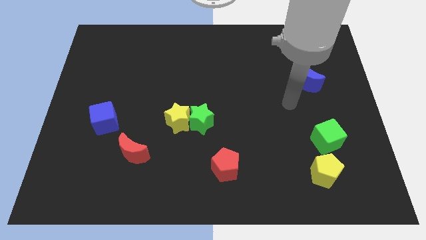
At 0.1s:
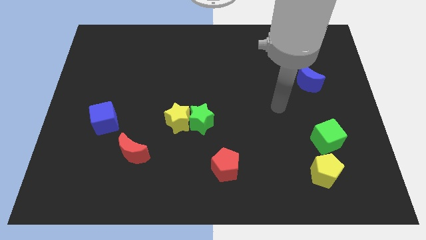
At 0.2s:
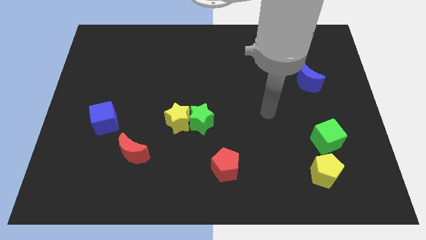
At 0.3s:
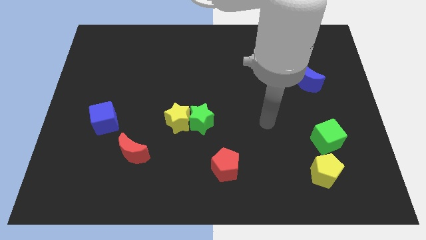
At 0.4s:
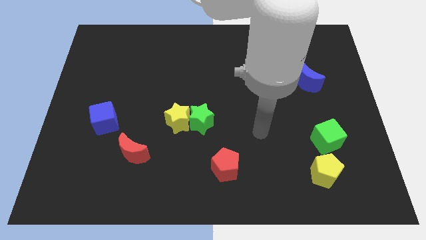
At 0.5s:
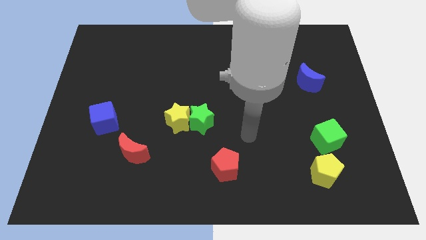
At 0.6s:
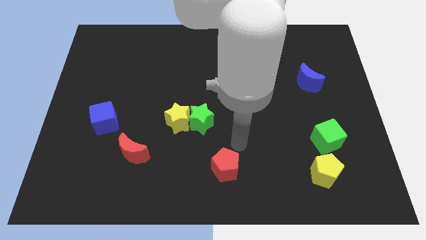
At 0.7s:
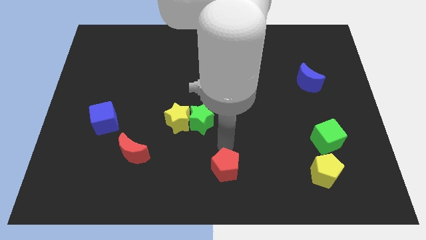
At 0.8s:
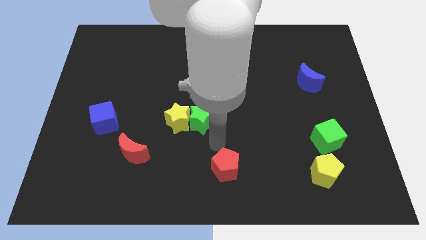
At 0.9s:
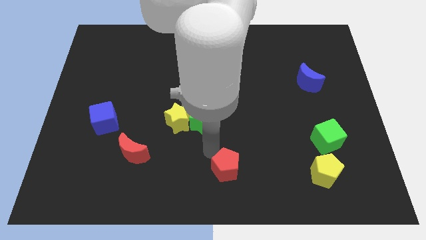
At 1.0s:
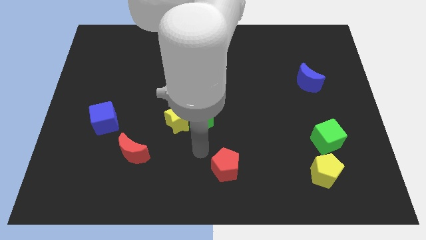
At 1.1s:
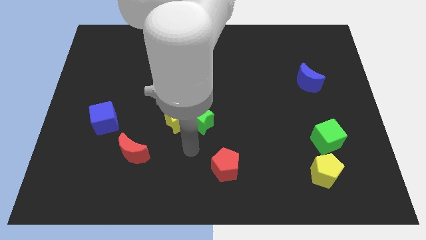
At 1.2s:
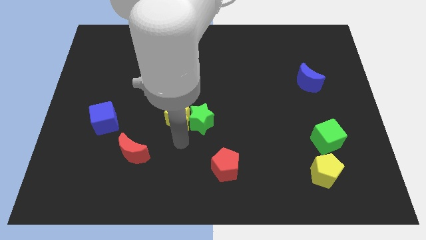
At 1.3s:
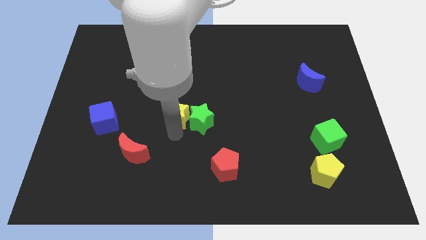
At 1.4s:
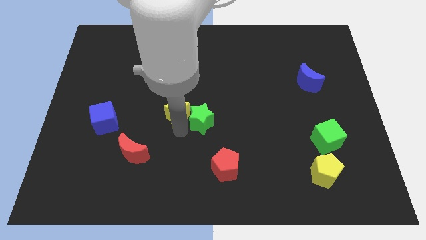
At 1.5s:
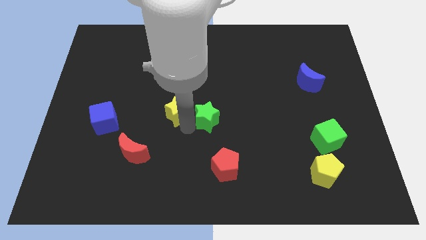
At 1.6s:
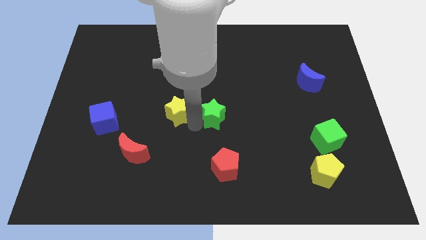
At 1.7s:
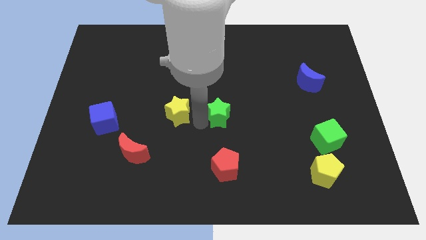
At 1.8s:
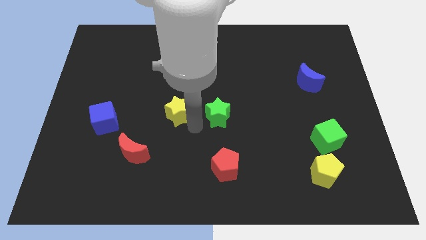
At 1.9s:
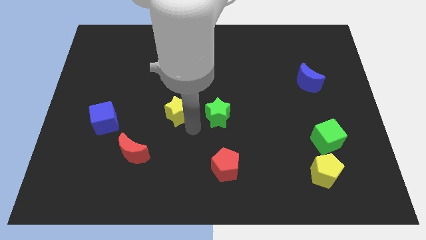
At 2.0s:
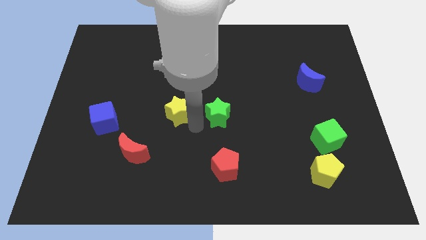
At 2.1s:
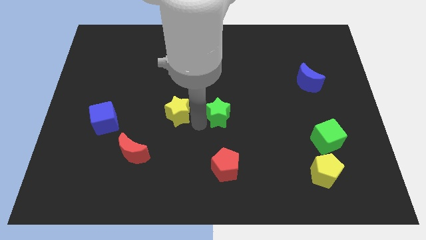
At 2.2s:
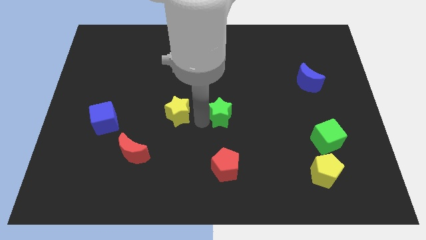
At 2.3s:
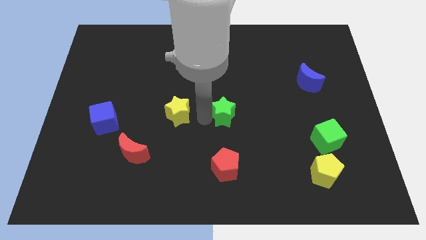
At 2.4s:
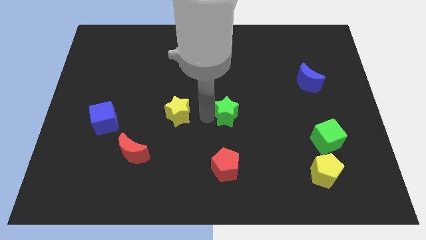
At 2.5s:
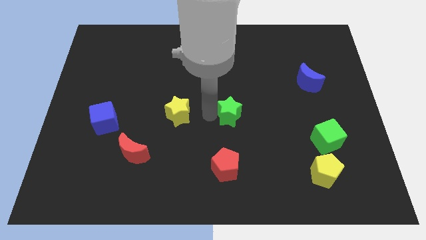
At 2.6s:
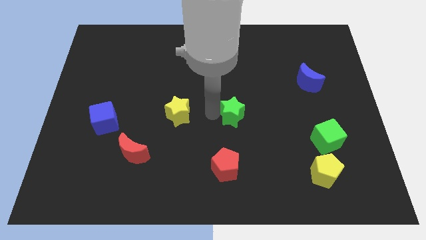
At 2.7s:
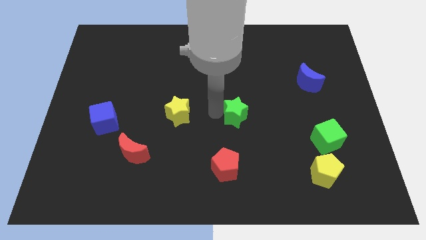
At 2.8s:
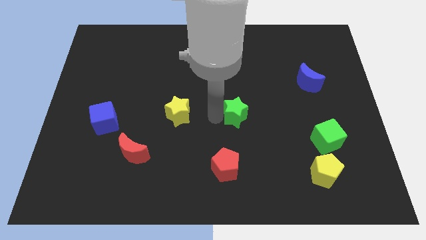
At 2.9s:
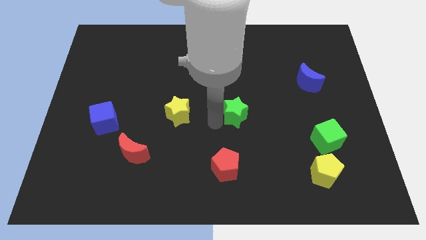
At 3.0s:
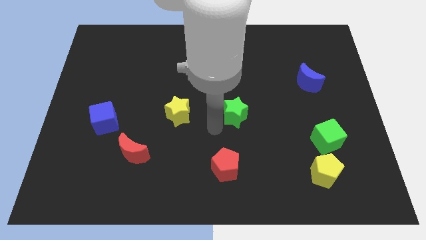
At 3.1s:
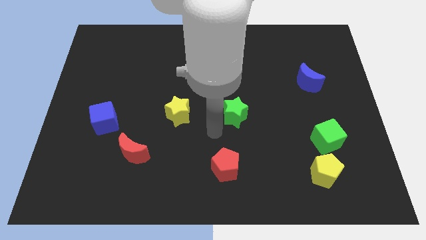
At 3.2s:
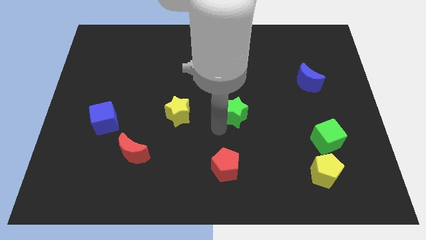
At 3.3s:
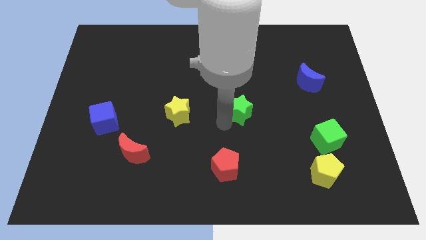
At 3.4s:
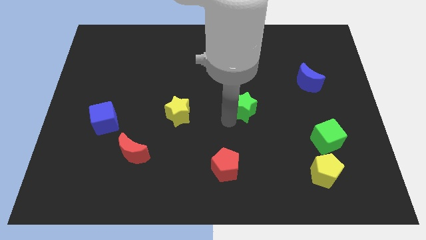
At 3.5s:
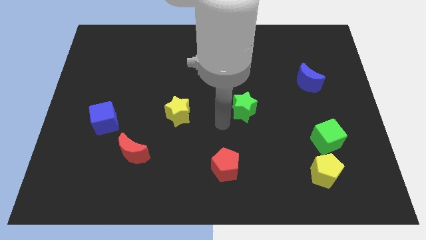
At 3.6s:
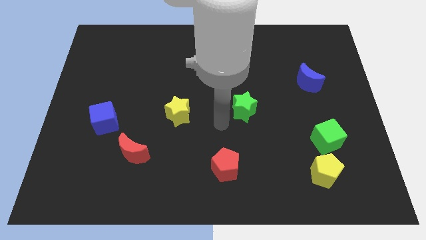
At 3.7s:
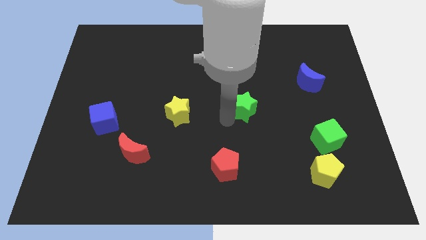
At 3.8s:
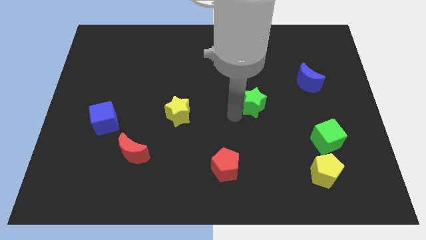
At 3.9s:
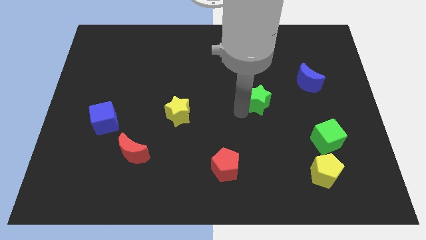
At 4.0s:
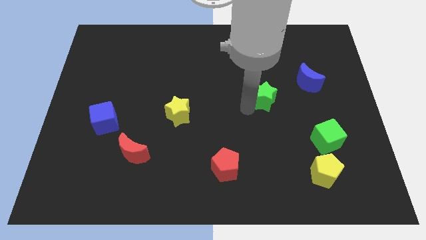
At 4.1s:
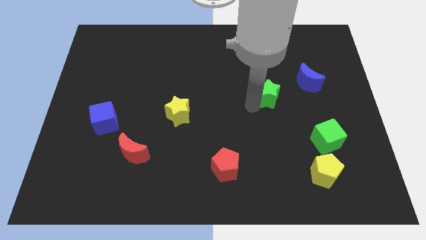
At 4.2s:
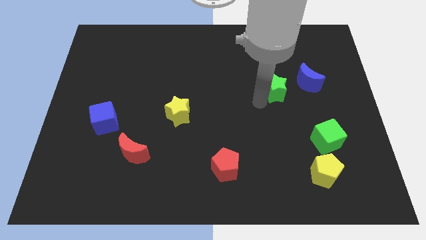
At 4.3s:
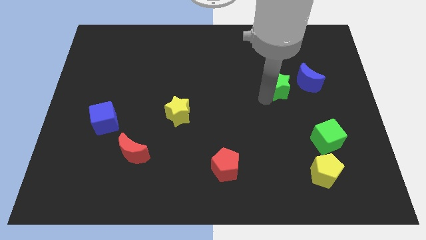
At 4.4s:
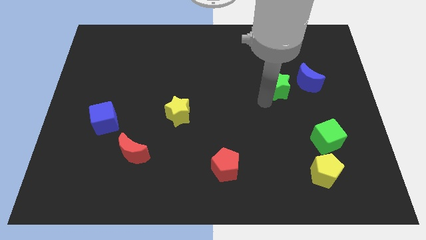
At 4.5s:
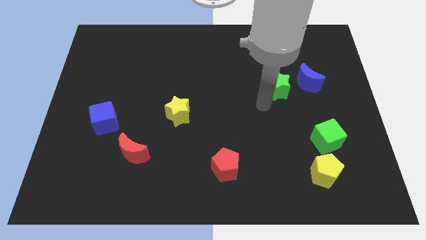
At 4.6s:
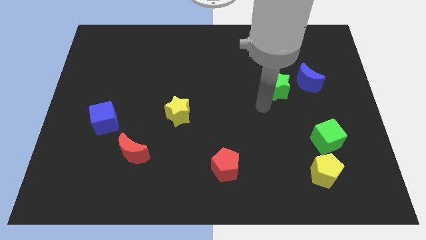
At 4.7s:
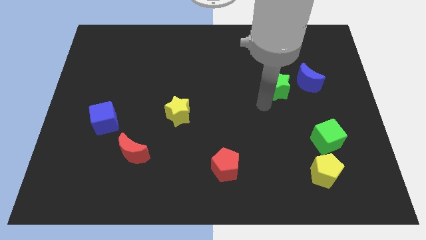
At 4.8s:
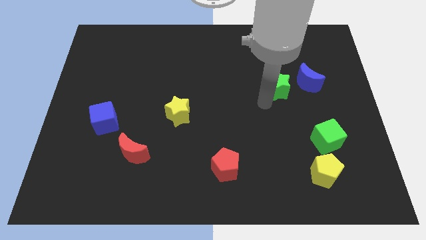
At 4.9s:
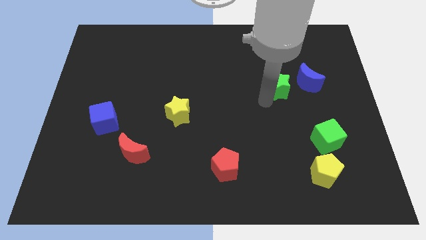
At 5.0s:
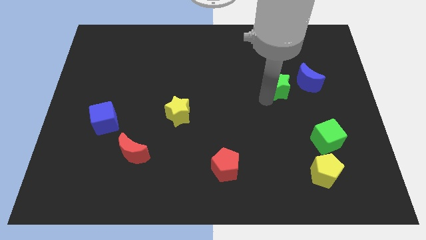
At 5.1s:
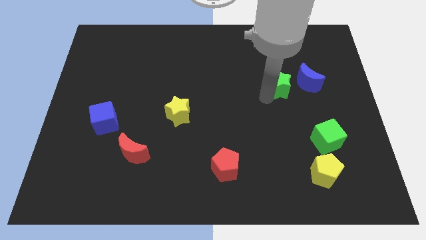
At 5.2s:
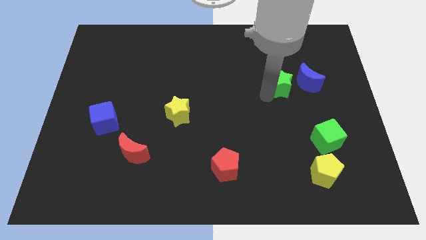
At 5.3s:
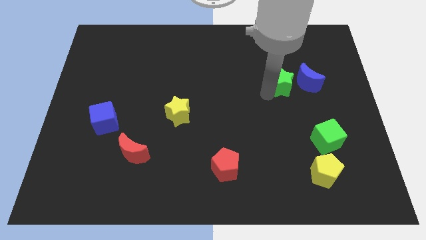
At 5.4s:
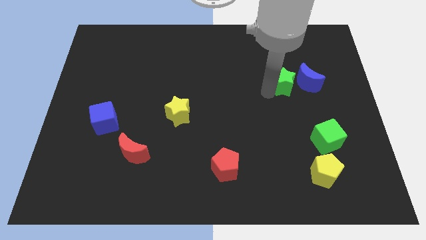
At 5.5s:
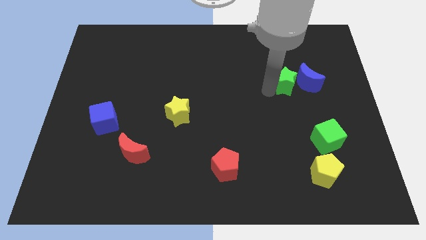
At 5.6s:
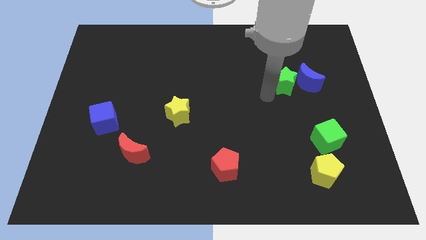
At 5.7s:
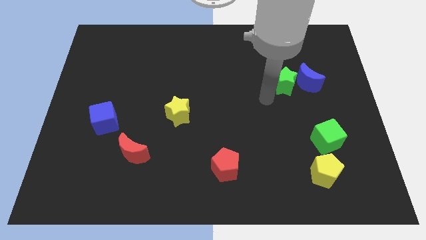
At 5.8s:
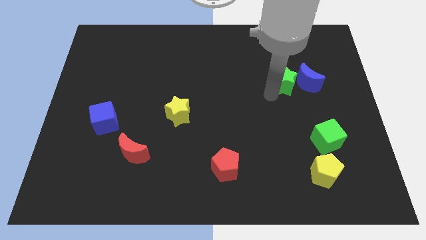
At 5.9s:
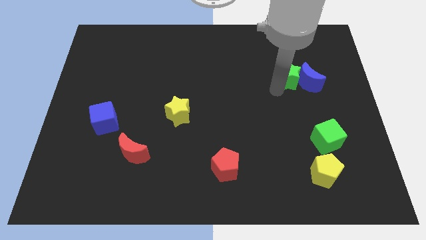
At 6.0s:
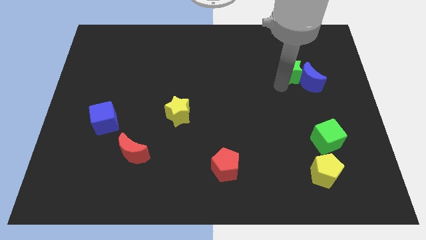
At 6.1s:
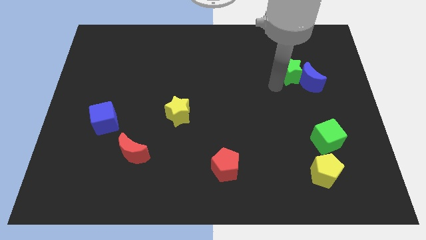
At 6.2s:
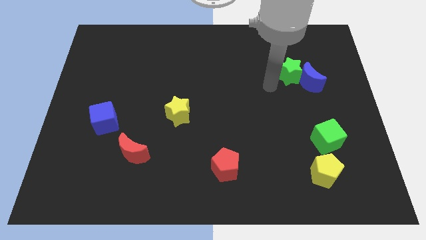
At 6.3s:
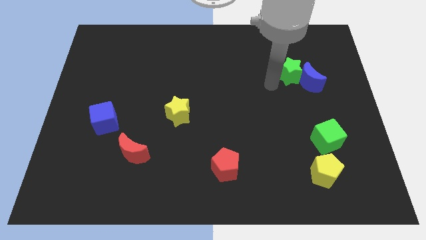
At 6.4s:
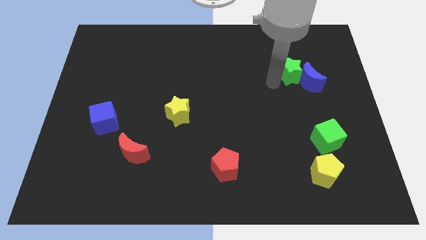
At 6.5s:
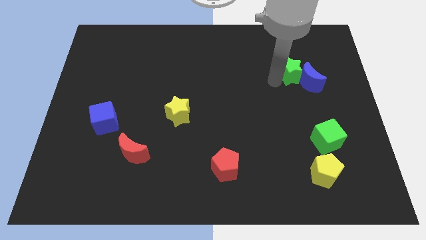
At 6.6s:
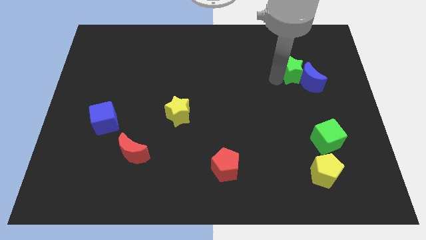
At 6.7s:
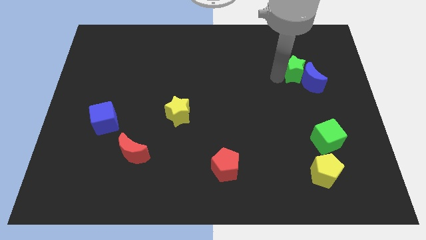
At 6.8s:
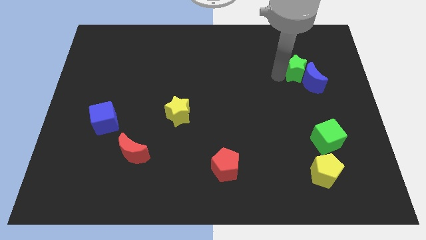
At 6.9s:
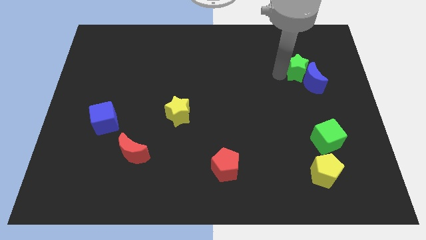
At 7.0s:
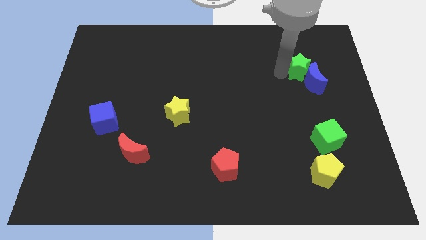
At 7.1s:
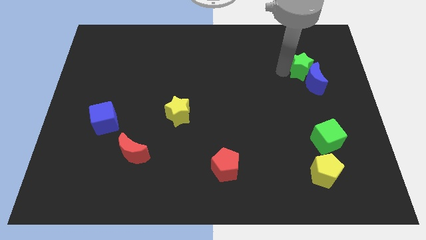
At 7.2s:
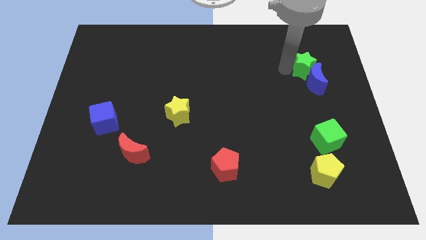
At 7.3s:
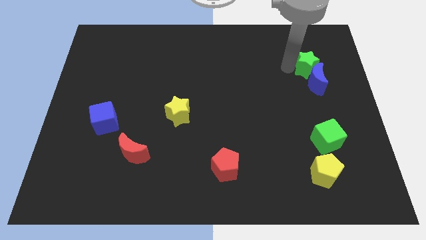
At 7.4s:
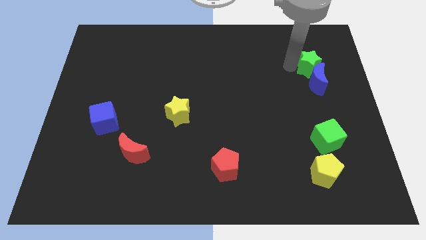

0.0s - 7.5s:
put the green star to the top right of the blue moon
